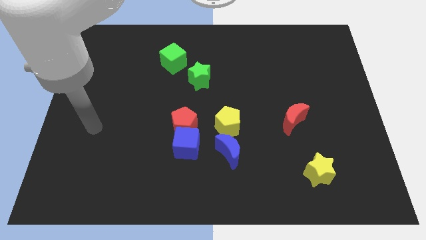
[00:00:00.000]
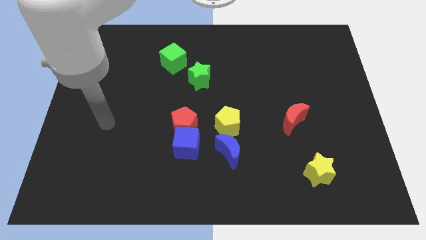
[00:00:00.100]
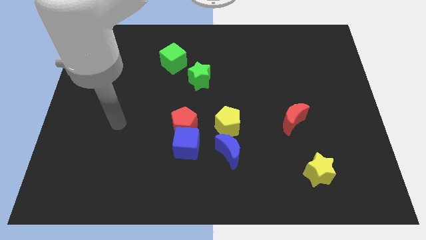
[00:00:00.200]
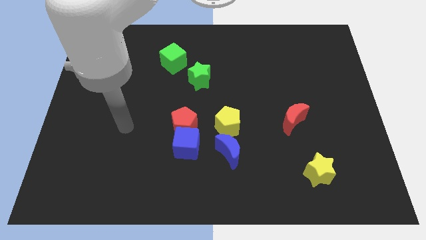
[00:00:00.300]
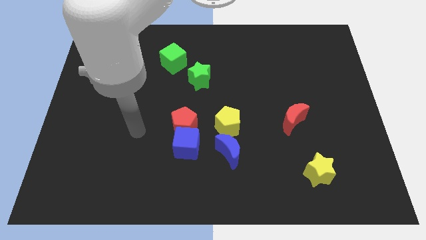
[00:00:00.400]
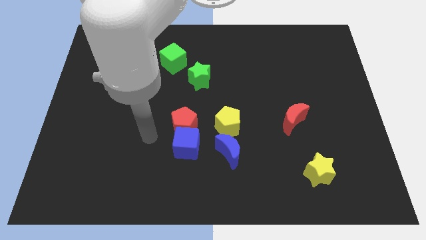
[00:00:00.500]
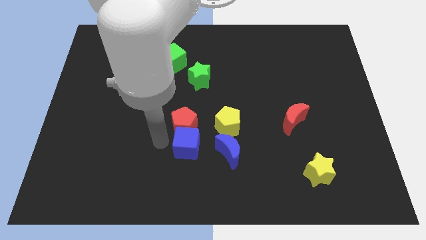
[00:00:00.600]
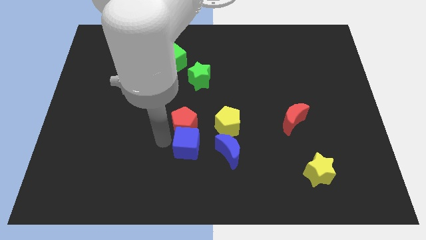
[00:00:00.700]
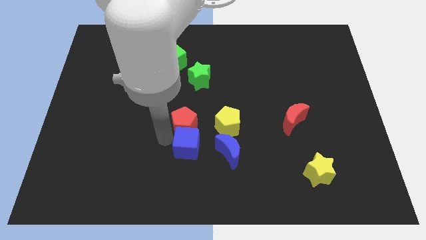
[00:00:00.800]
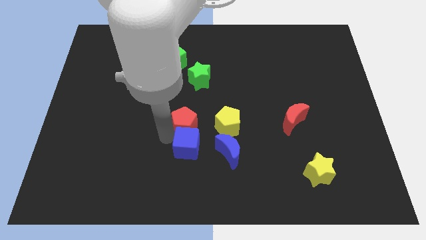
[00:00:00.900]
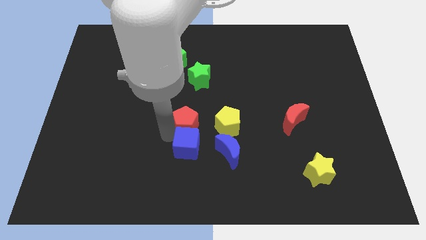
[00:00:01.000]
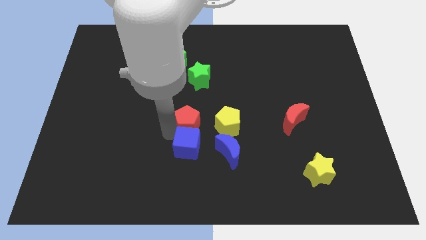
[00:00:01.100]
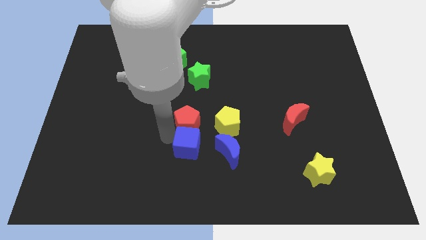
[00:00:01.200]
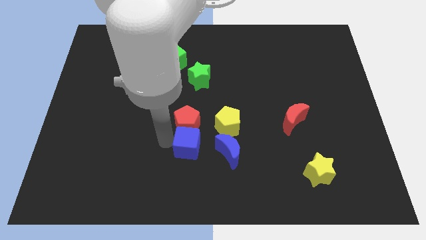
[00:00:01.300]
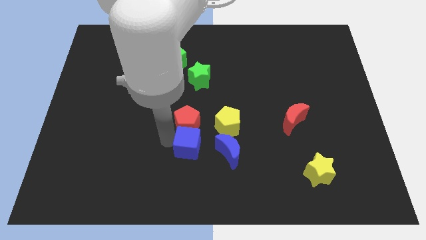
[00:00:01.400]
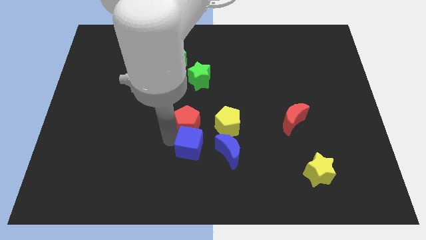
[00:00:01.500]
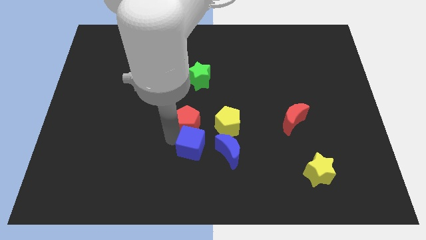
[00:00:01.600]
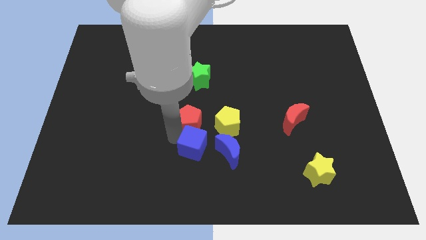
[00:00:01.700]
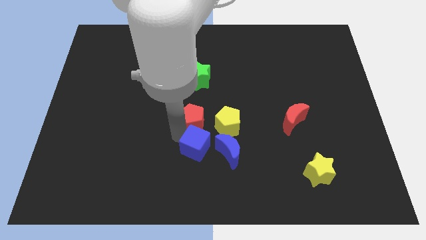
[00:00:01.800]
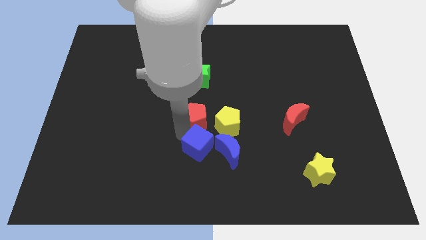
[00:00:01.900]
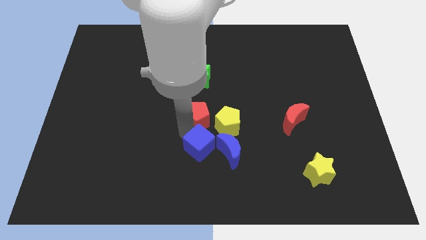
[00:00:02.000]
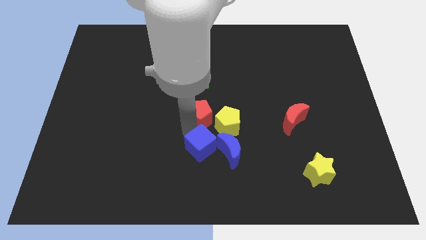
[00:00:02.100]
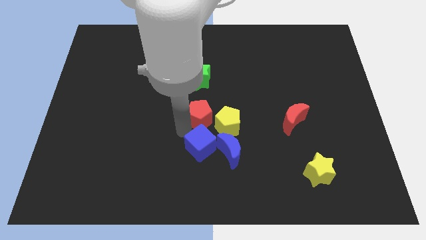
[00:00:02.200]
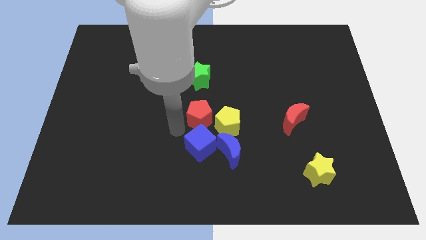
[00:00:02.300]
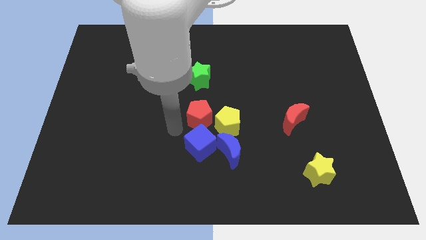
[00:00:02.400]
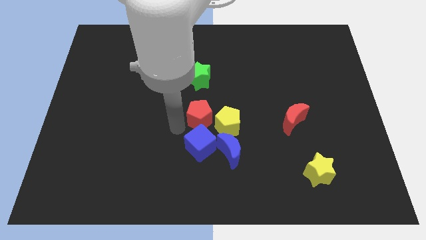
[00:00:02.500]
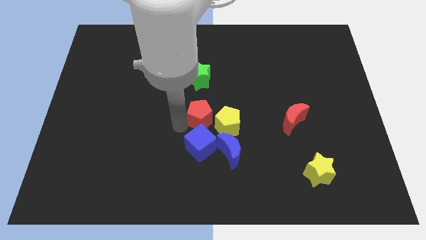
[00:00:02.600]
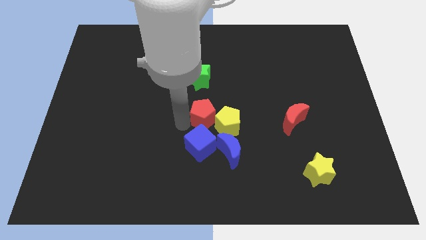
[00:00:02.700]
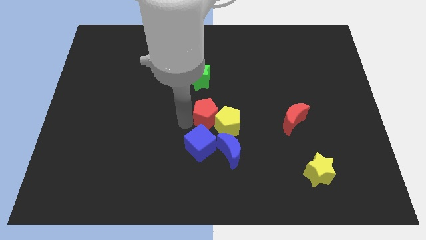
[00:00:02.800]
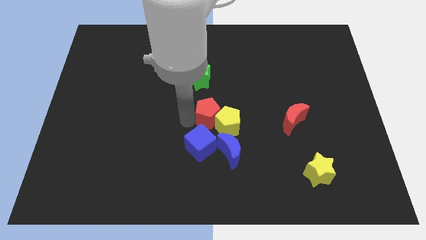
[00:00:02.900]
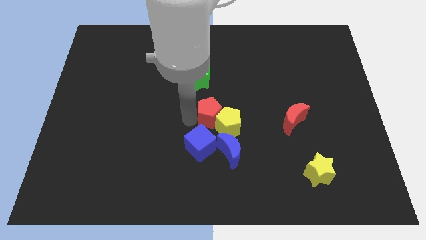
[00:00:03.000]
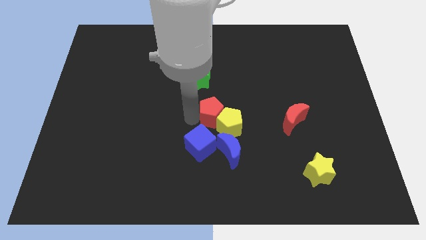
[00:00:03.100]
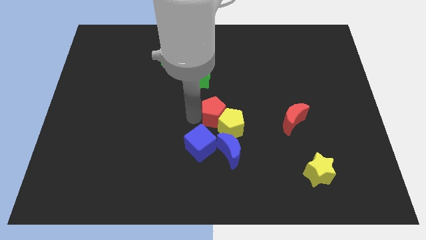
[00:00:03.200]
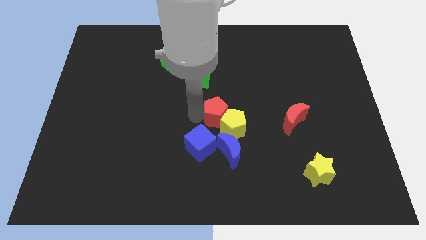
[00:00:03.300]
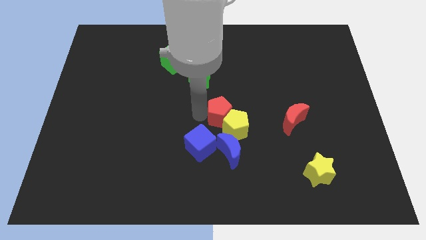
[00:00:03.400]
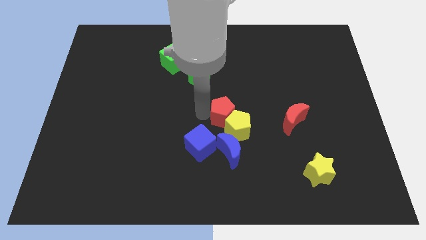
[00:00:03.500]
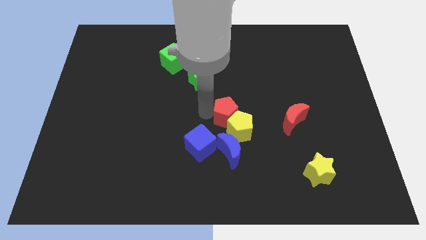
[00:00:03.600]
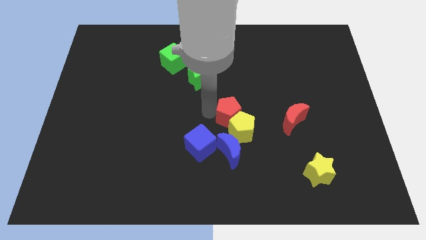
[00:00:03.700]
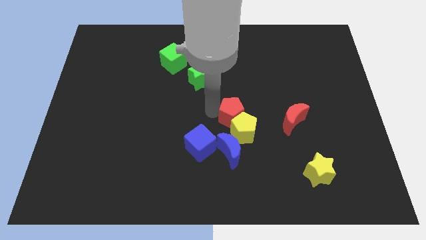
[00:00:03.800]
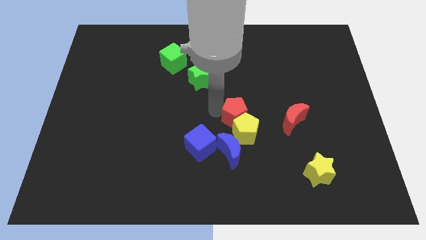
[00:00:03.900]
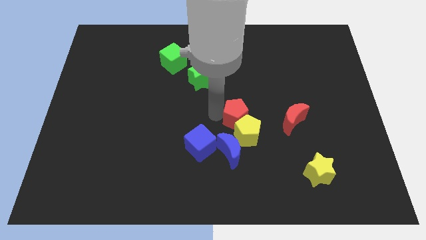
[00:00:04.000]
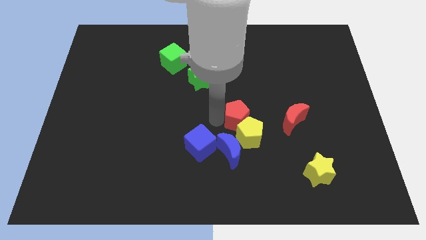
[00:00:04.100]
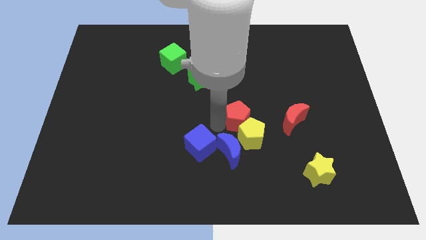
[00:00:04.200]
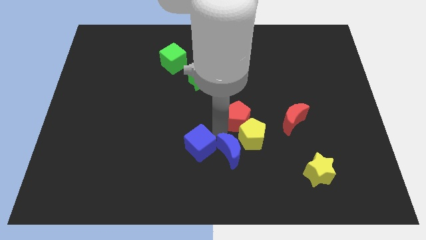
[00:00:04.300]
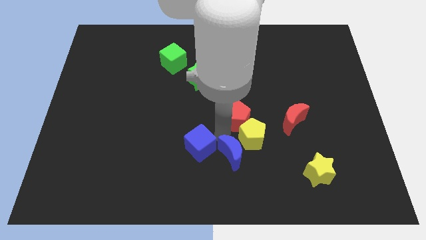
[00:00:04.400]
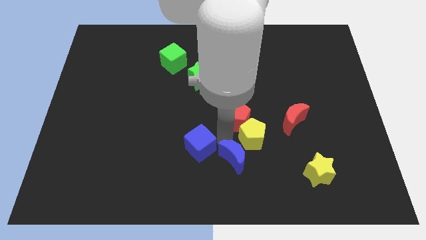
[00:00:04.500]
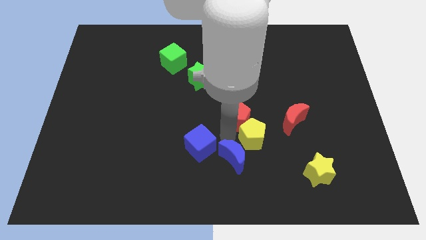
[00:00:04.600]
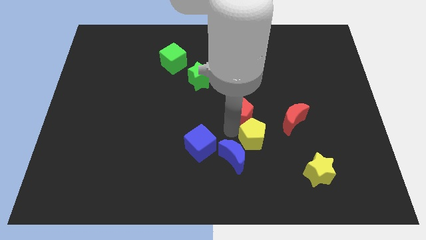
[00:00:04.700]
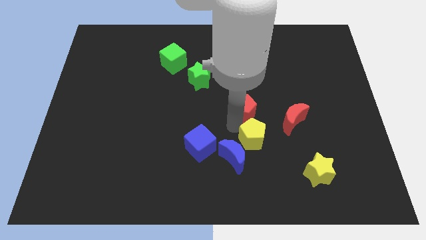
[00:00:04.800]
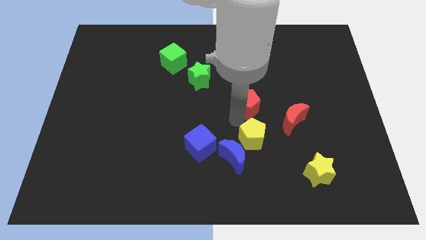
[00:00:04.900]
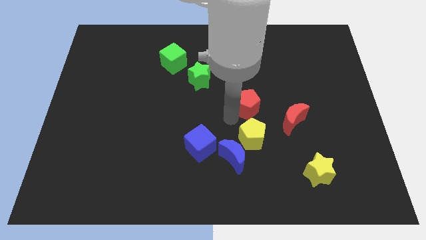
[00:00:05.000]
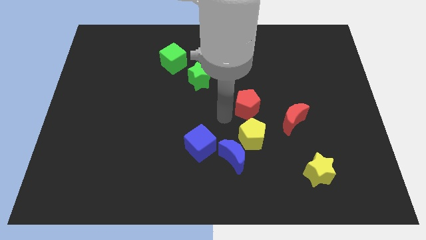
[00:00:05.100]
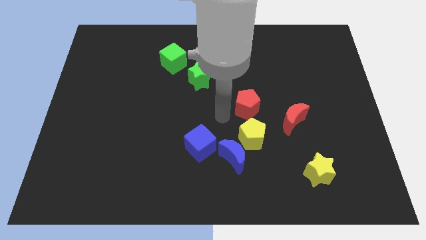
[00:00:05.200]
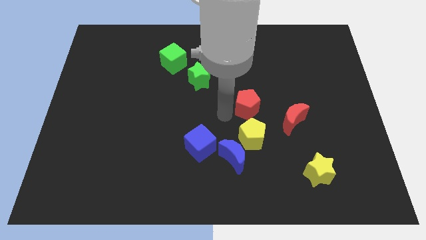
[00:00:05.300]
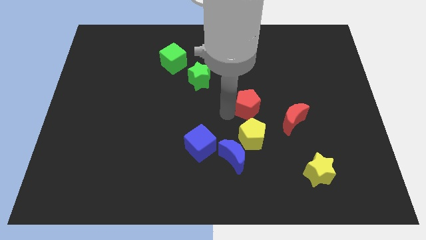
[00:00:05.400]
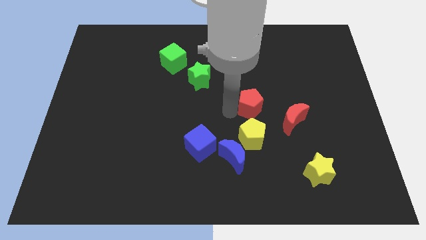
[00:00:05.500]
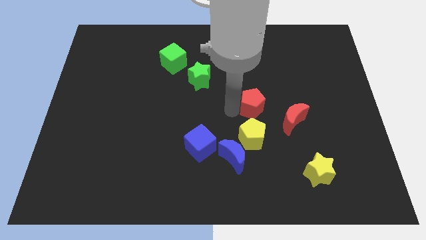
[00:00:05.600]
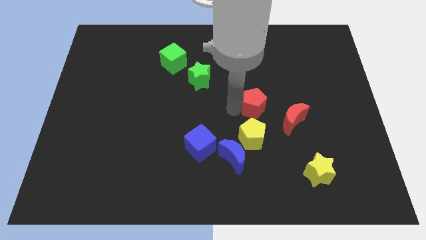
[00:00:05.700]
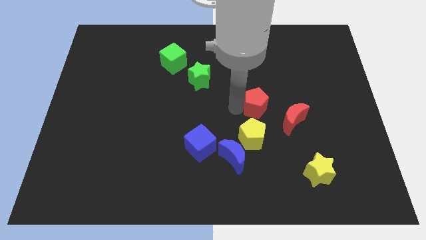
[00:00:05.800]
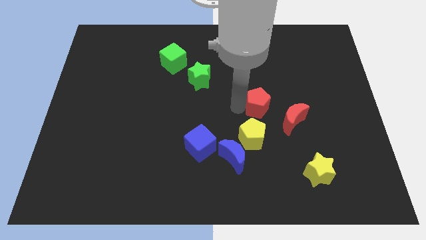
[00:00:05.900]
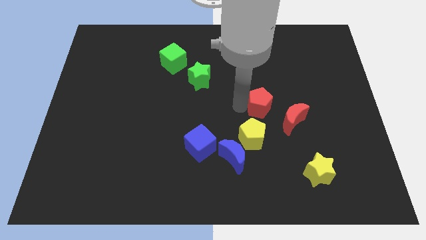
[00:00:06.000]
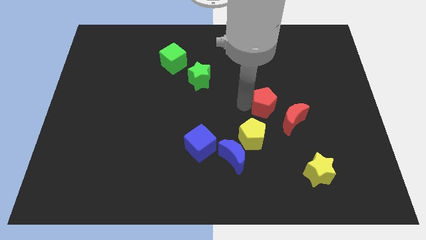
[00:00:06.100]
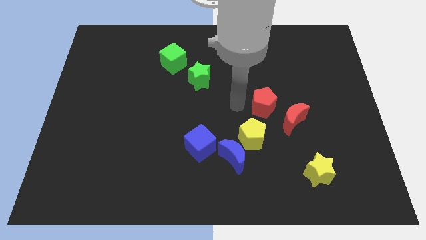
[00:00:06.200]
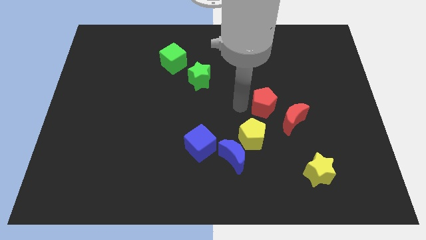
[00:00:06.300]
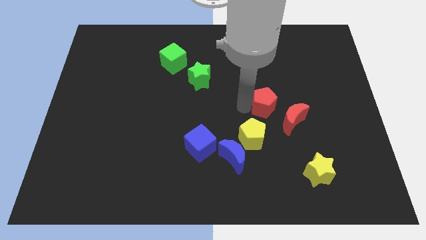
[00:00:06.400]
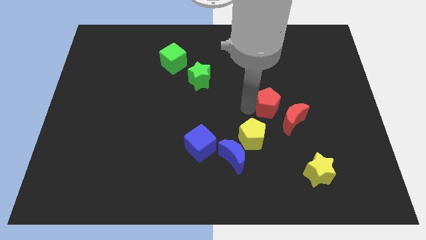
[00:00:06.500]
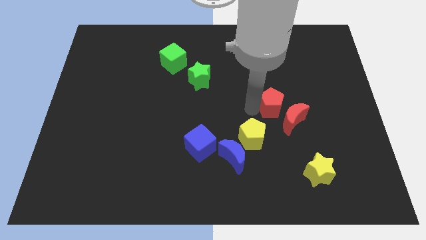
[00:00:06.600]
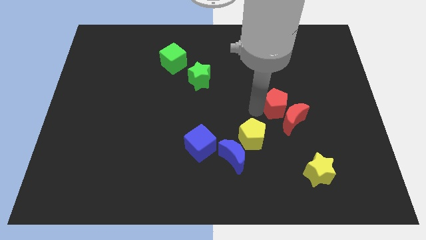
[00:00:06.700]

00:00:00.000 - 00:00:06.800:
move the red pentagon right

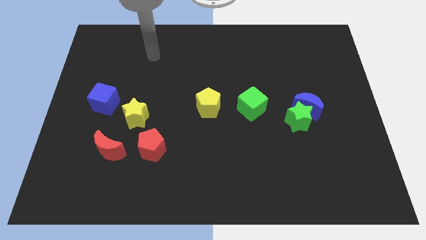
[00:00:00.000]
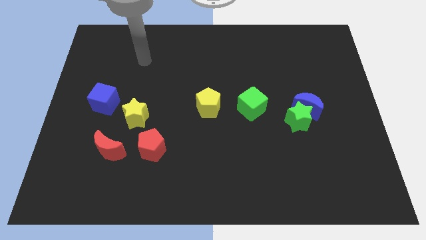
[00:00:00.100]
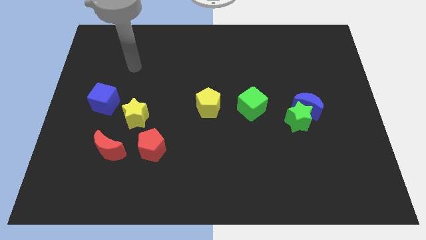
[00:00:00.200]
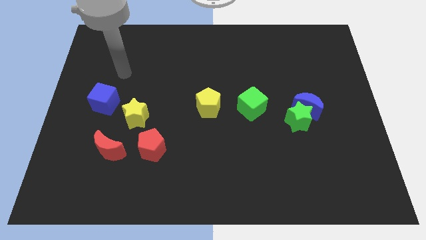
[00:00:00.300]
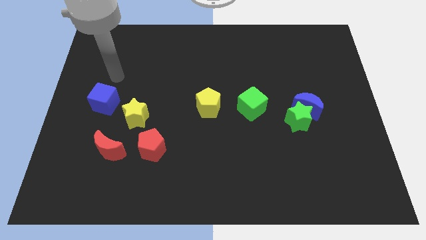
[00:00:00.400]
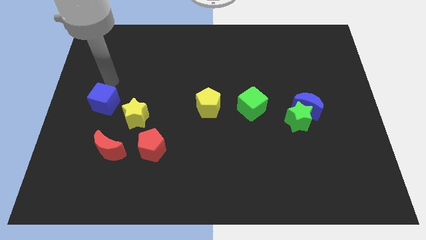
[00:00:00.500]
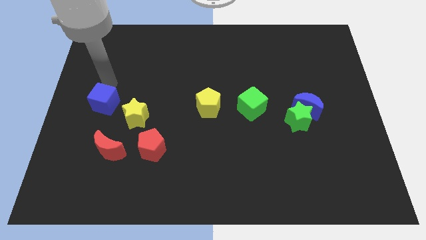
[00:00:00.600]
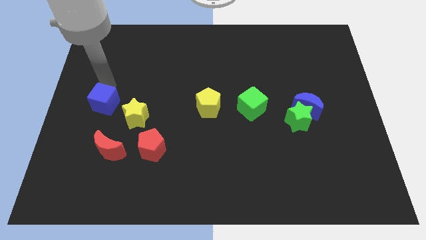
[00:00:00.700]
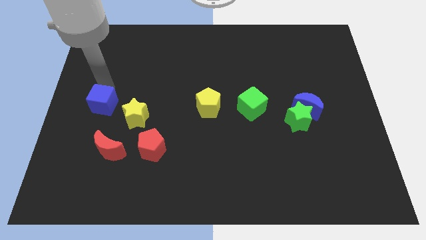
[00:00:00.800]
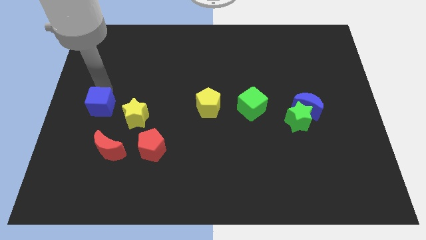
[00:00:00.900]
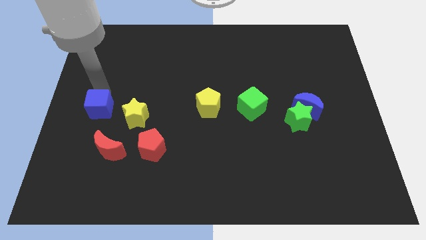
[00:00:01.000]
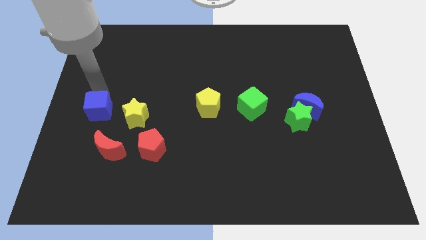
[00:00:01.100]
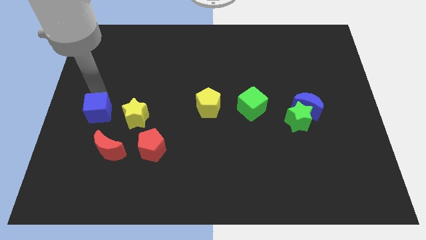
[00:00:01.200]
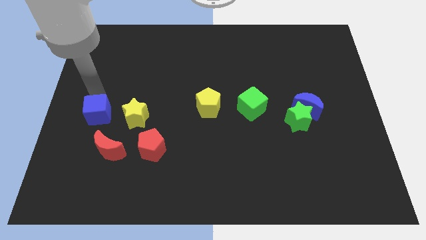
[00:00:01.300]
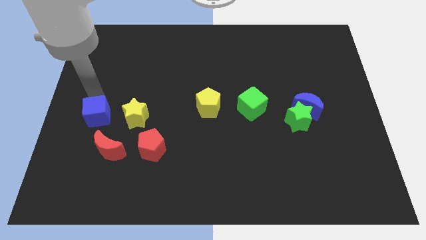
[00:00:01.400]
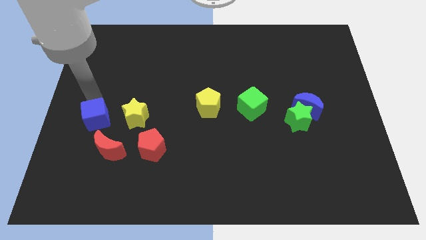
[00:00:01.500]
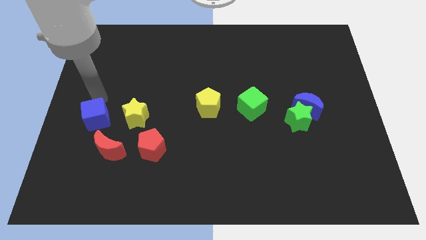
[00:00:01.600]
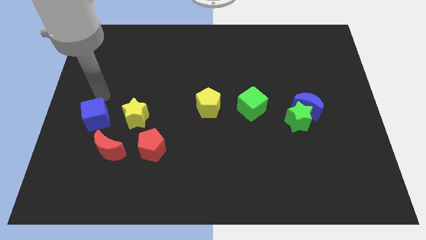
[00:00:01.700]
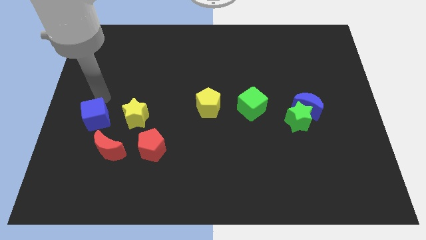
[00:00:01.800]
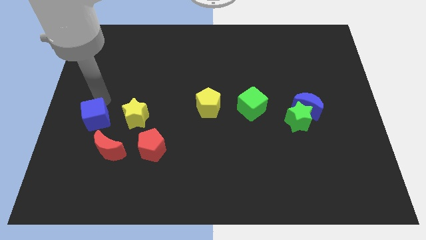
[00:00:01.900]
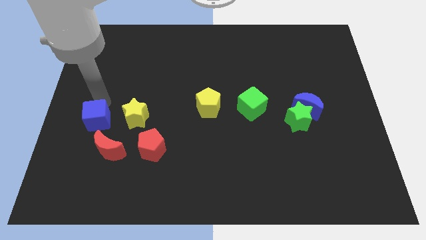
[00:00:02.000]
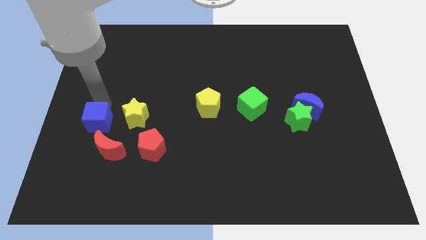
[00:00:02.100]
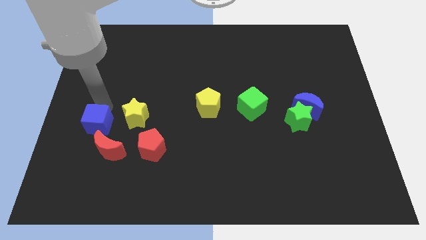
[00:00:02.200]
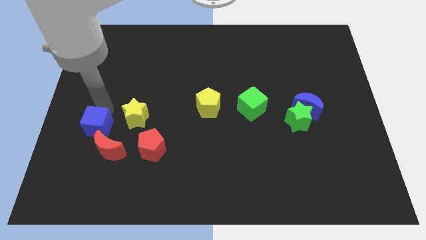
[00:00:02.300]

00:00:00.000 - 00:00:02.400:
move the blue cube down a bit
